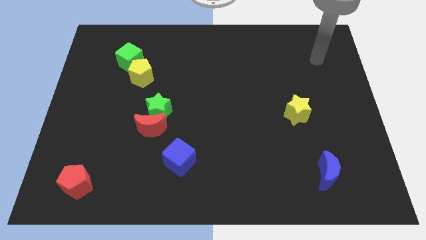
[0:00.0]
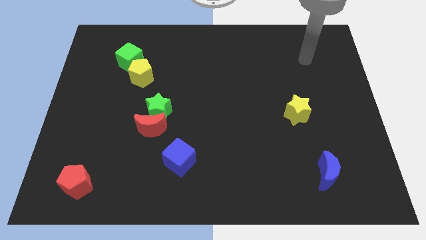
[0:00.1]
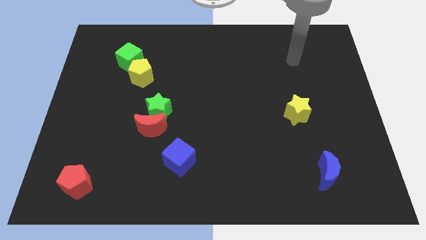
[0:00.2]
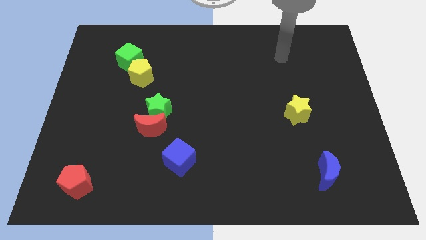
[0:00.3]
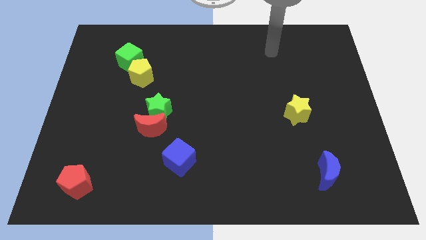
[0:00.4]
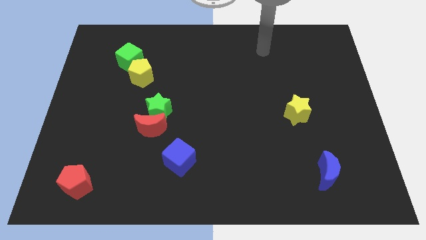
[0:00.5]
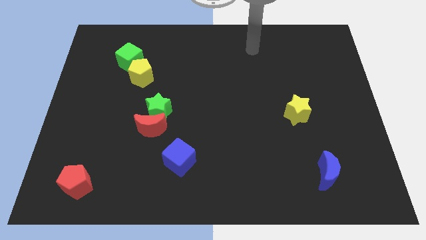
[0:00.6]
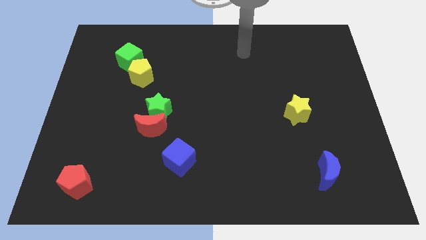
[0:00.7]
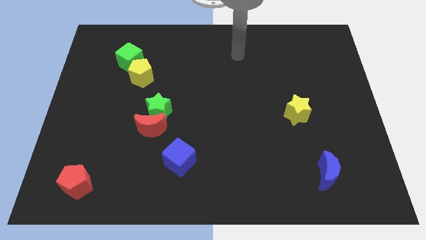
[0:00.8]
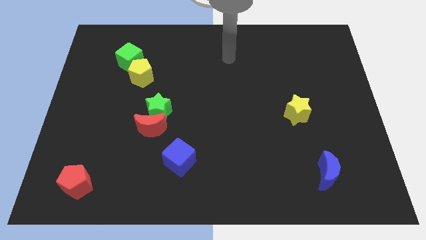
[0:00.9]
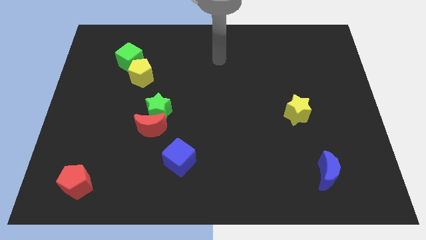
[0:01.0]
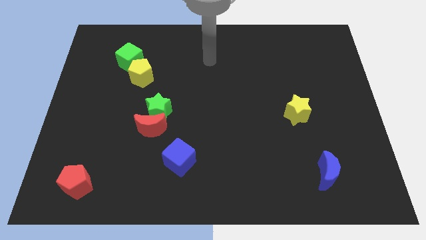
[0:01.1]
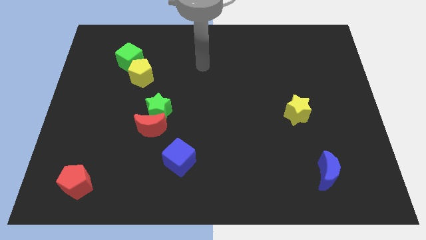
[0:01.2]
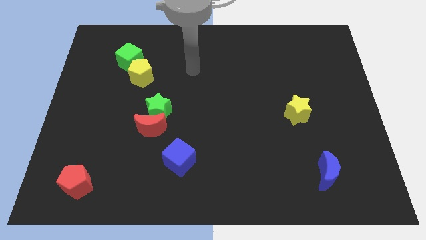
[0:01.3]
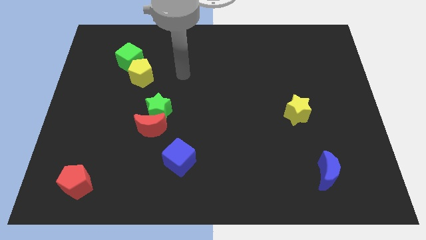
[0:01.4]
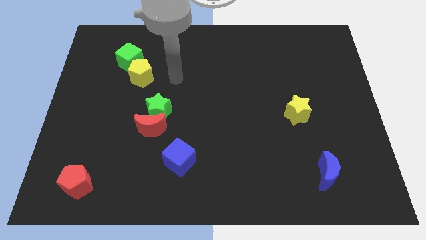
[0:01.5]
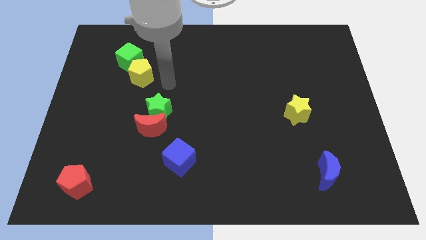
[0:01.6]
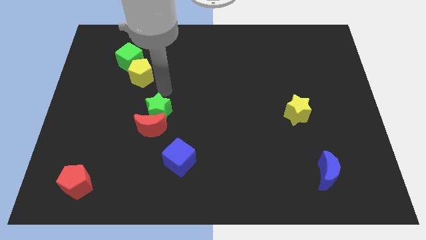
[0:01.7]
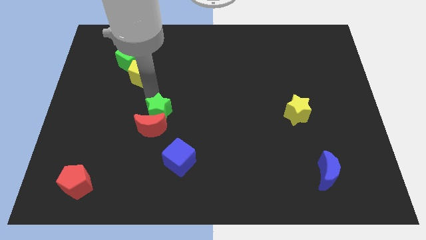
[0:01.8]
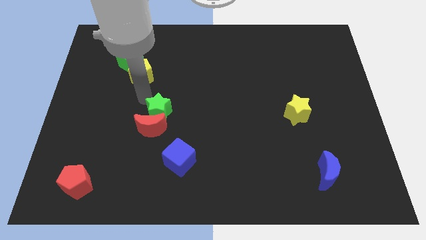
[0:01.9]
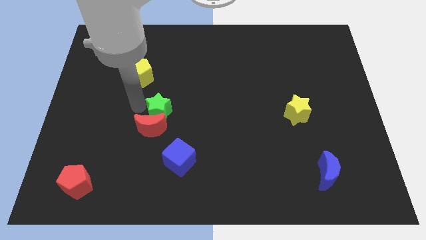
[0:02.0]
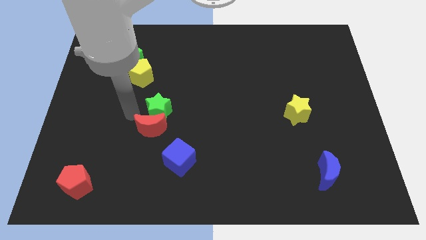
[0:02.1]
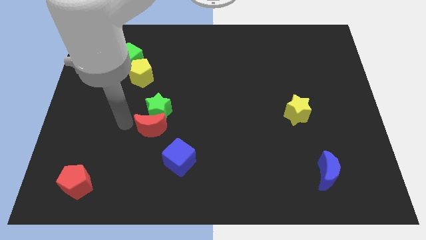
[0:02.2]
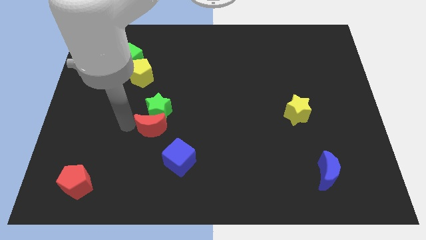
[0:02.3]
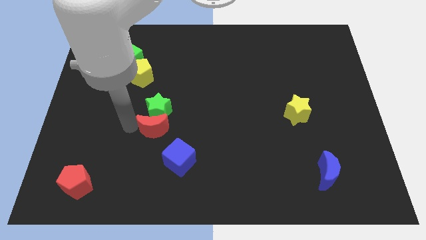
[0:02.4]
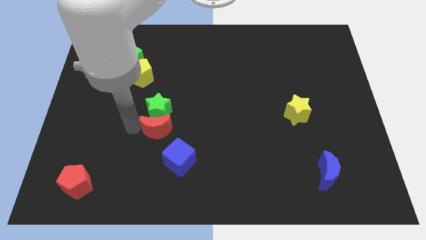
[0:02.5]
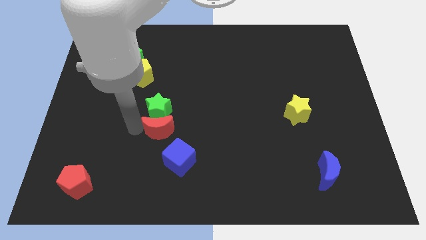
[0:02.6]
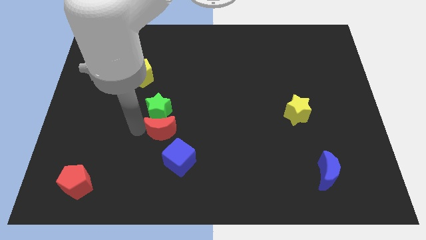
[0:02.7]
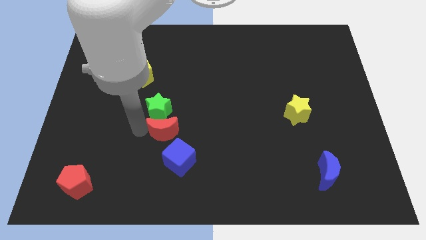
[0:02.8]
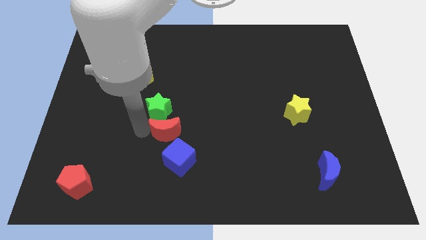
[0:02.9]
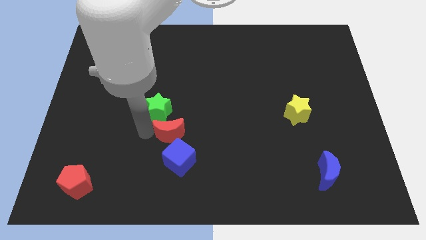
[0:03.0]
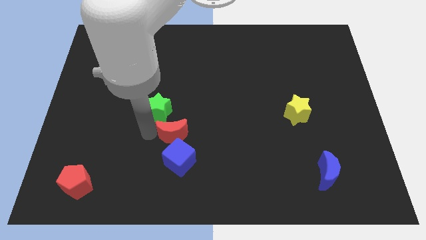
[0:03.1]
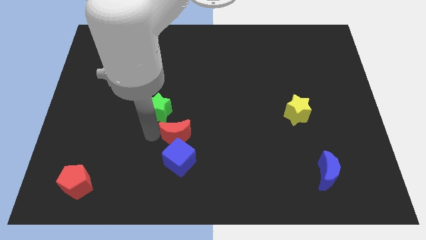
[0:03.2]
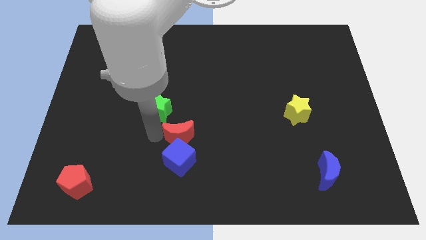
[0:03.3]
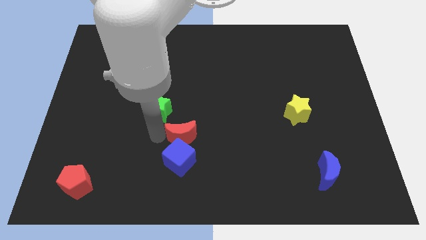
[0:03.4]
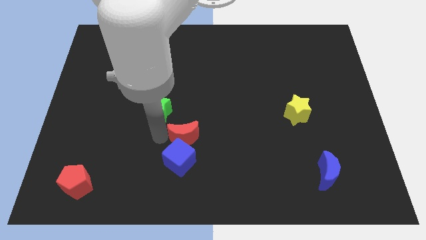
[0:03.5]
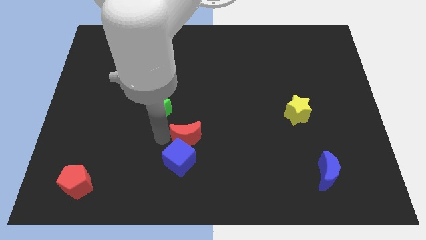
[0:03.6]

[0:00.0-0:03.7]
slightly slide the red moon diagonally down and right

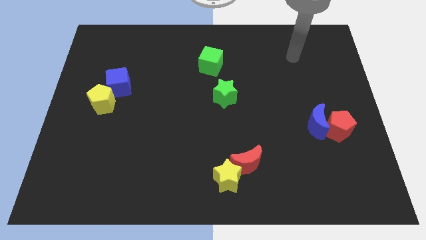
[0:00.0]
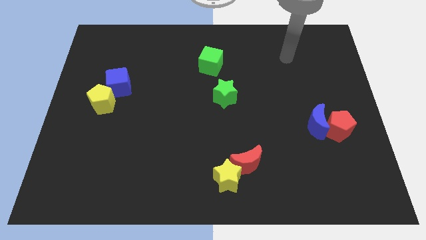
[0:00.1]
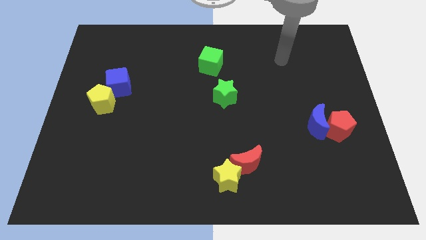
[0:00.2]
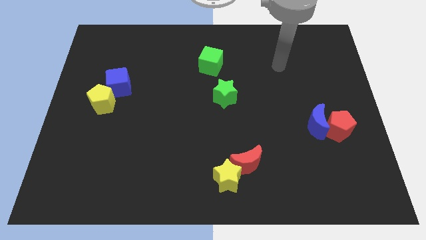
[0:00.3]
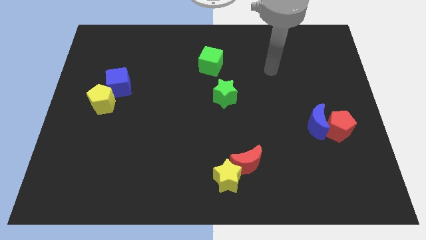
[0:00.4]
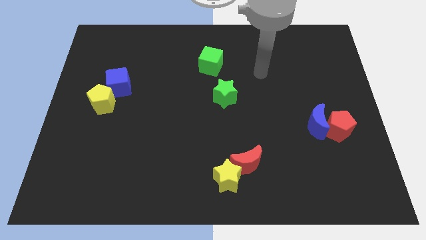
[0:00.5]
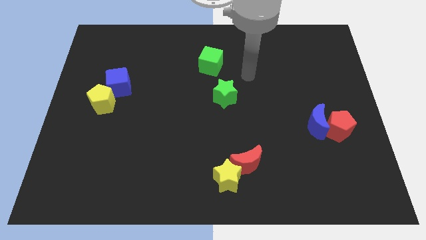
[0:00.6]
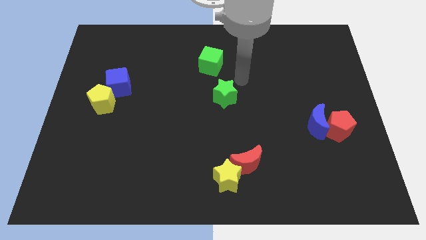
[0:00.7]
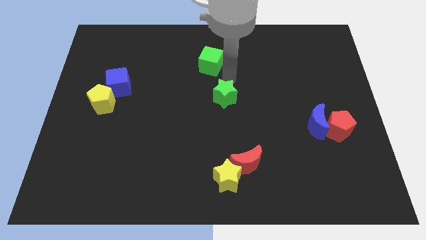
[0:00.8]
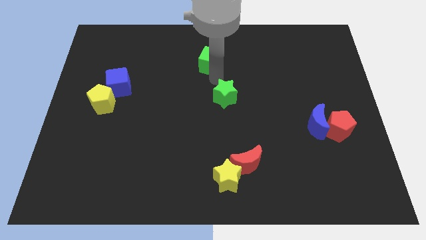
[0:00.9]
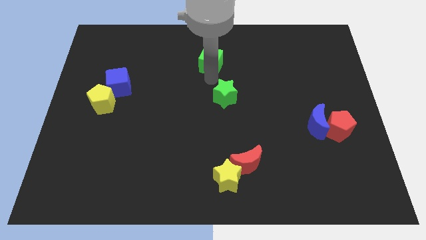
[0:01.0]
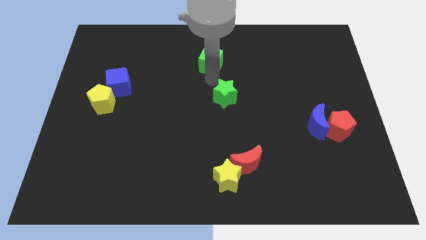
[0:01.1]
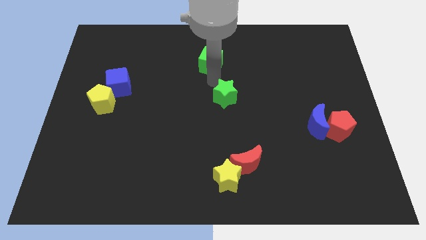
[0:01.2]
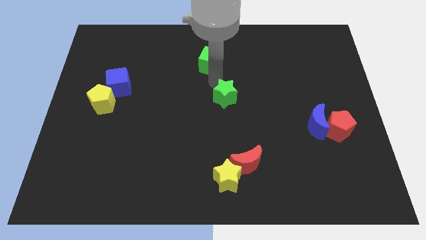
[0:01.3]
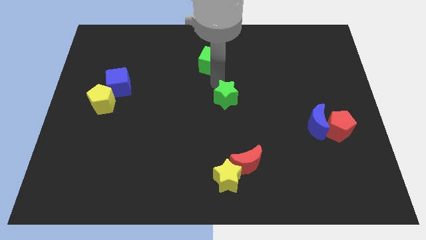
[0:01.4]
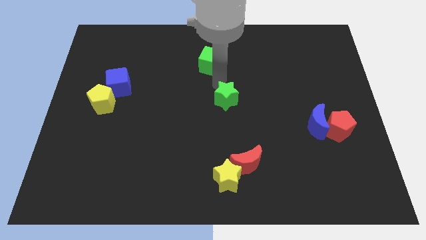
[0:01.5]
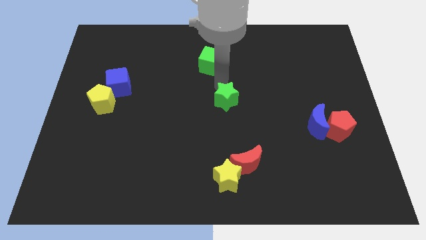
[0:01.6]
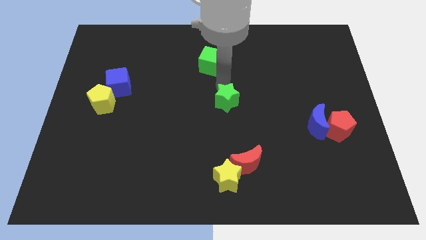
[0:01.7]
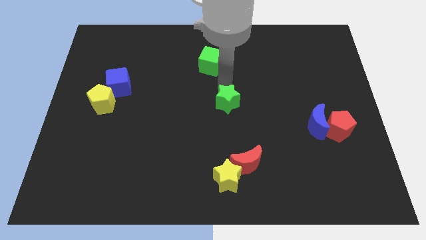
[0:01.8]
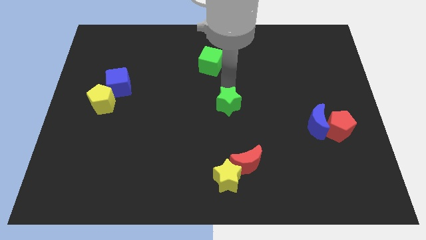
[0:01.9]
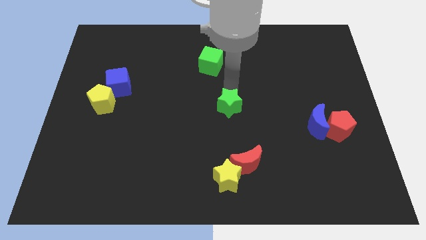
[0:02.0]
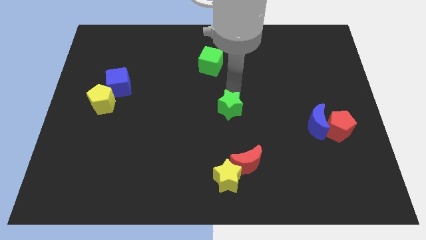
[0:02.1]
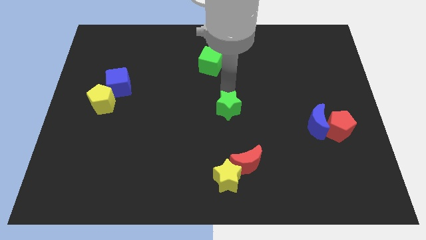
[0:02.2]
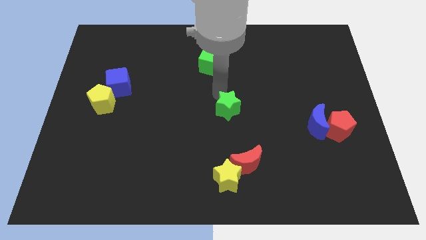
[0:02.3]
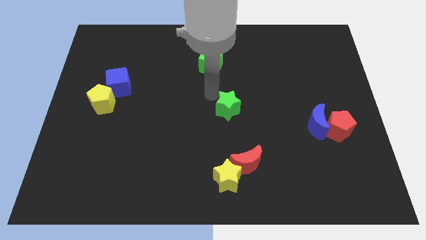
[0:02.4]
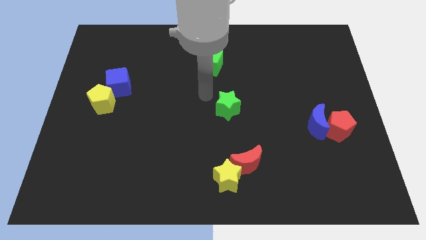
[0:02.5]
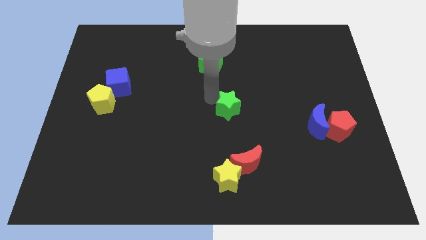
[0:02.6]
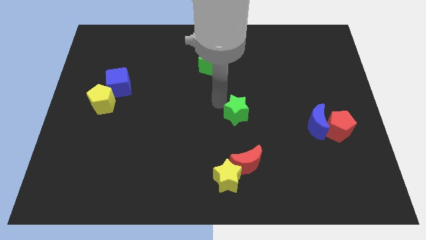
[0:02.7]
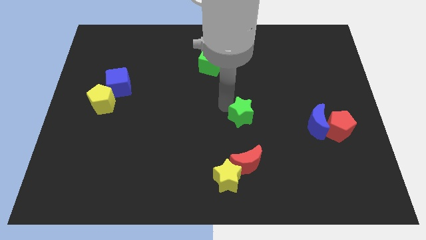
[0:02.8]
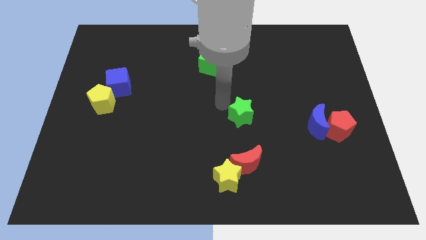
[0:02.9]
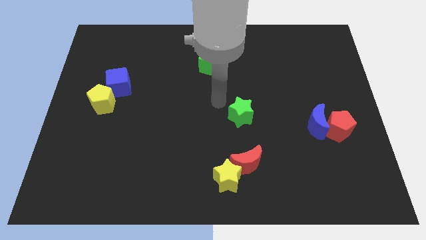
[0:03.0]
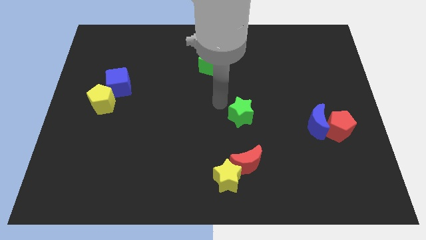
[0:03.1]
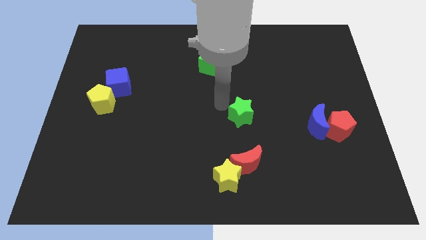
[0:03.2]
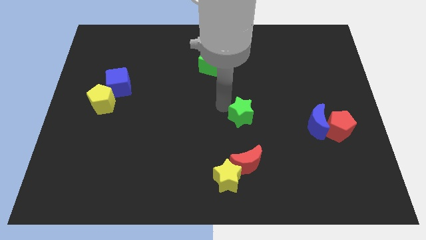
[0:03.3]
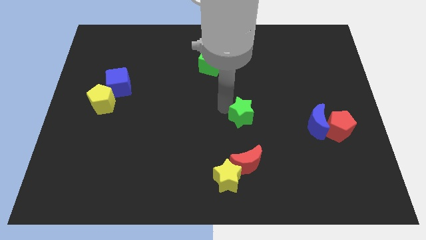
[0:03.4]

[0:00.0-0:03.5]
move the green star a little bit diagonally downwards and right

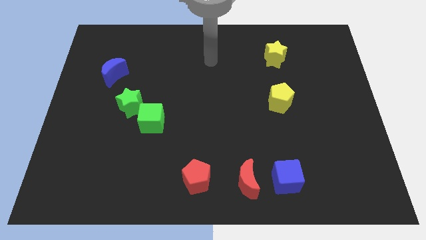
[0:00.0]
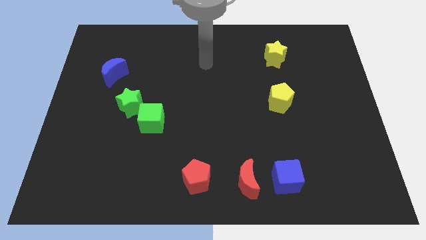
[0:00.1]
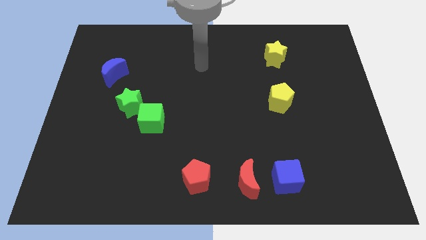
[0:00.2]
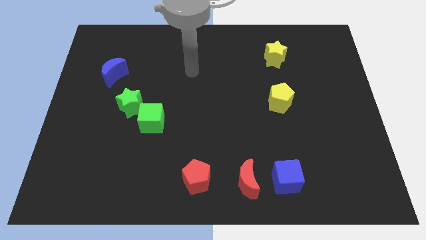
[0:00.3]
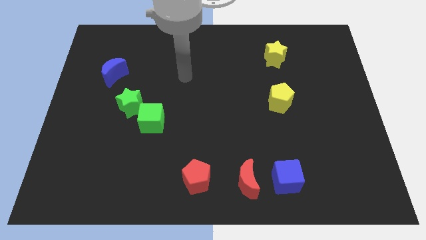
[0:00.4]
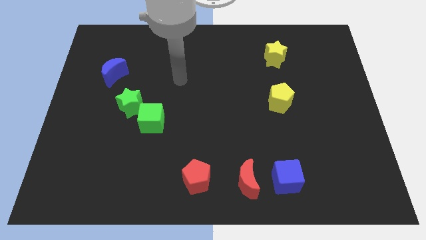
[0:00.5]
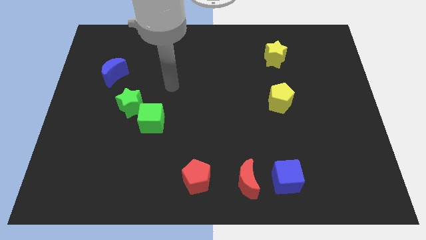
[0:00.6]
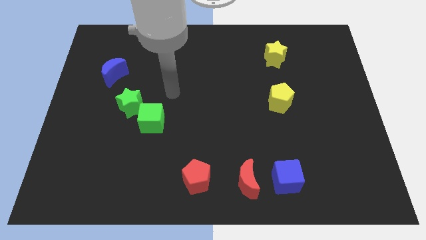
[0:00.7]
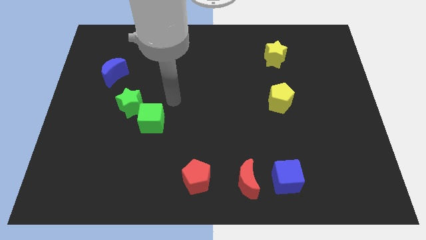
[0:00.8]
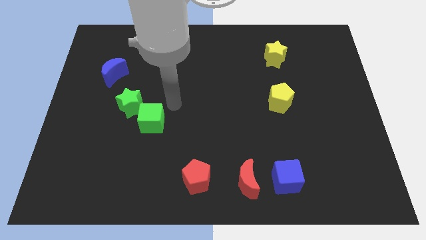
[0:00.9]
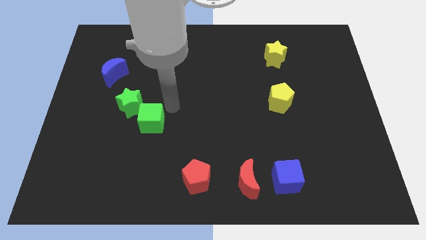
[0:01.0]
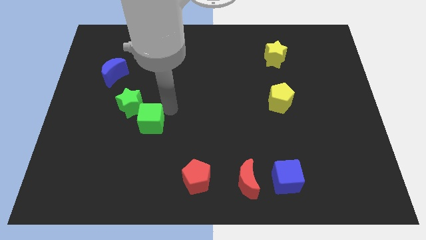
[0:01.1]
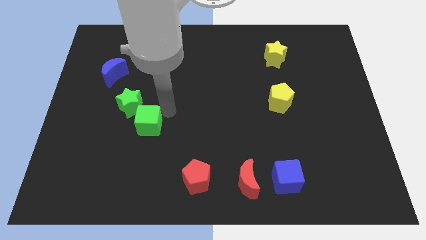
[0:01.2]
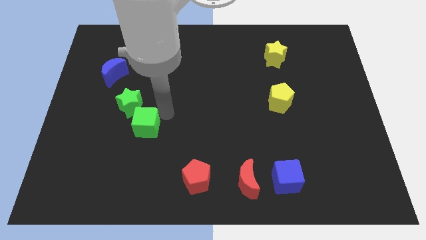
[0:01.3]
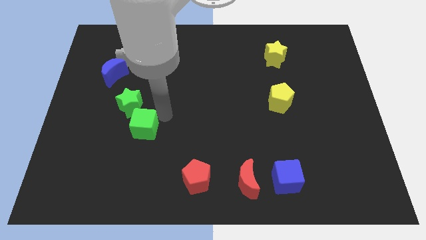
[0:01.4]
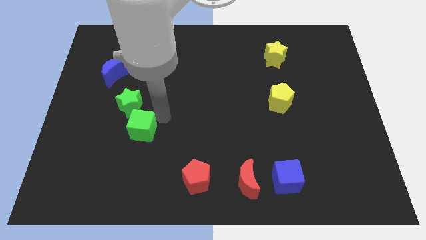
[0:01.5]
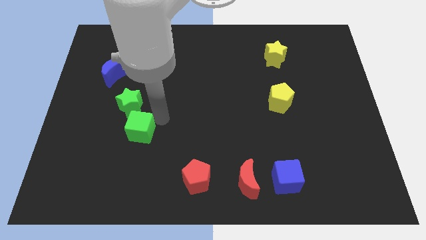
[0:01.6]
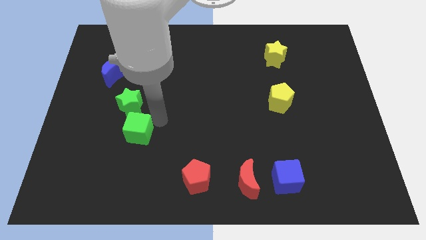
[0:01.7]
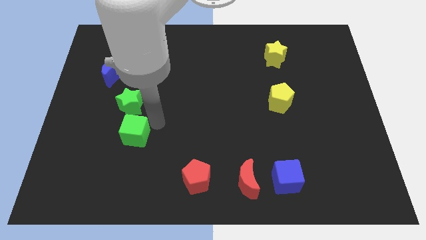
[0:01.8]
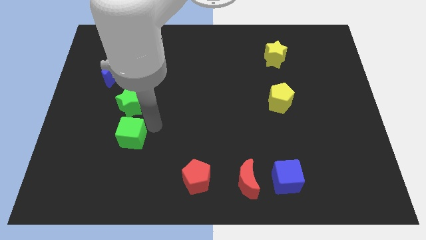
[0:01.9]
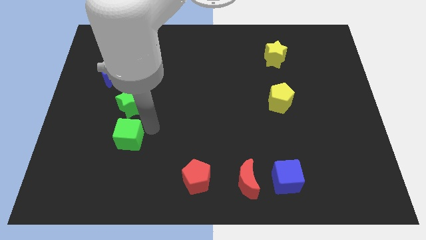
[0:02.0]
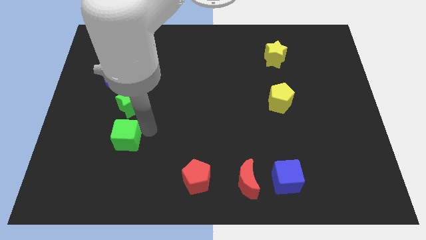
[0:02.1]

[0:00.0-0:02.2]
slightly move the green cube downwards and then left
